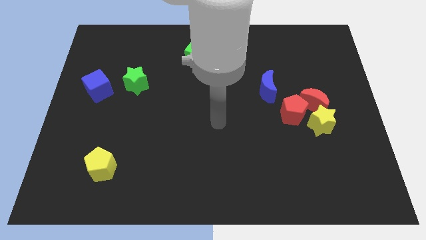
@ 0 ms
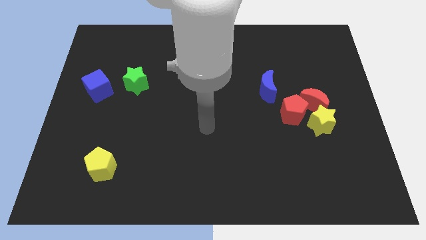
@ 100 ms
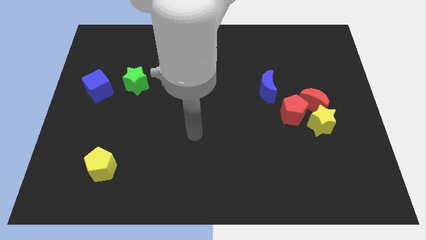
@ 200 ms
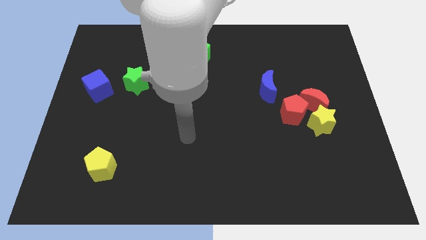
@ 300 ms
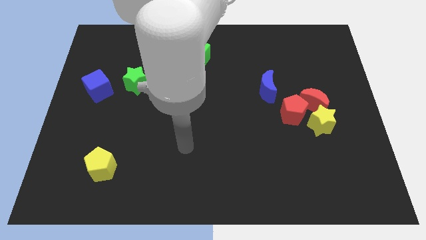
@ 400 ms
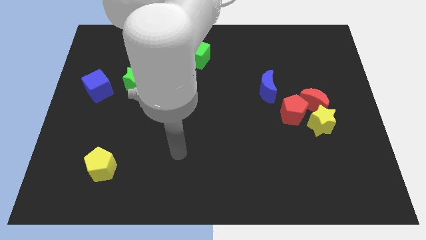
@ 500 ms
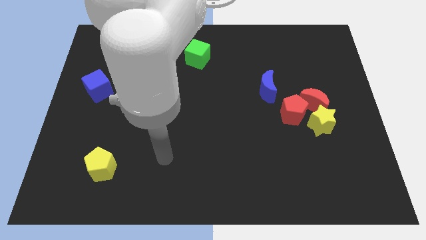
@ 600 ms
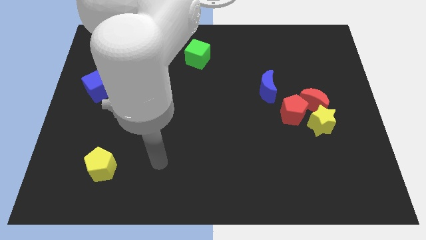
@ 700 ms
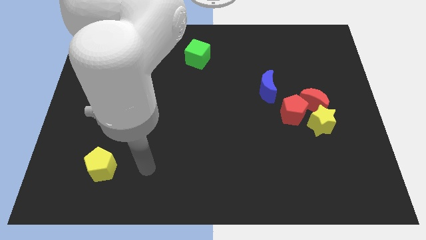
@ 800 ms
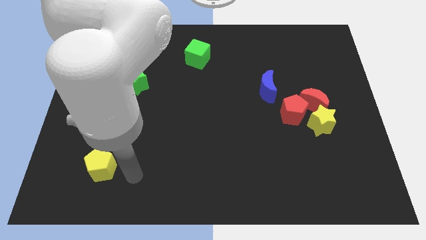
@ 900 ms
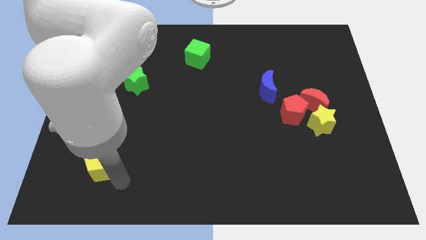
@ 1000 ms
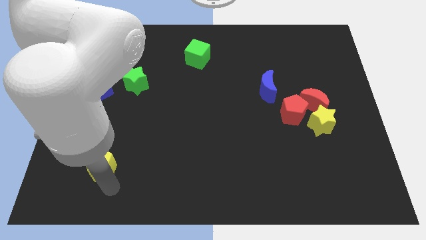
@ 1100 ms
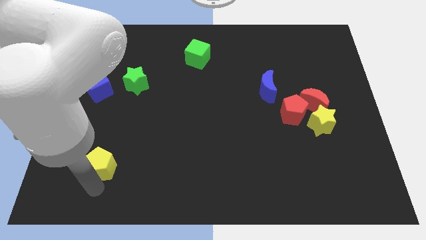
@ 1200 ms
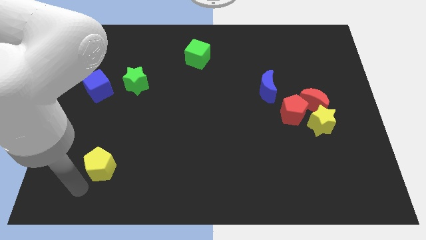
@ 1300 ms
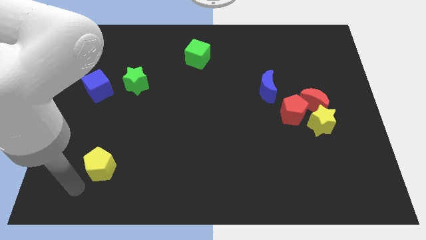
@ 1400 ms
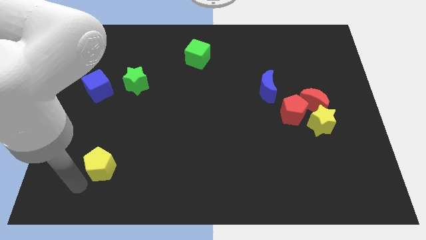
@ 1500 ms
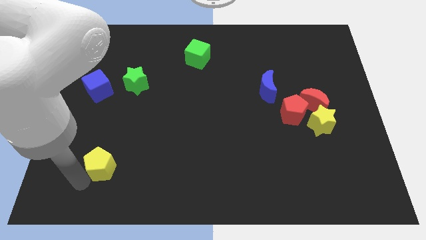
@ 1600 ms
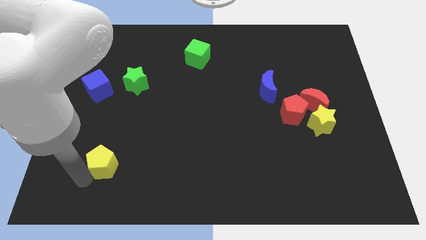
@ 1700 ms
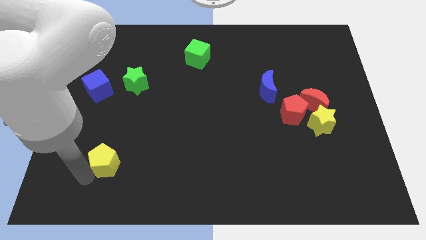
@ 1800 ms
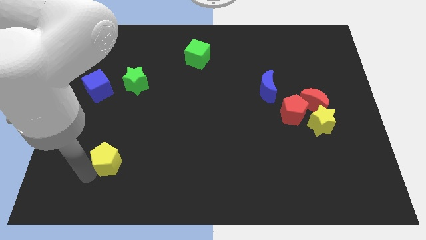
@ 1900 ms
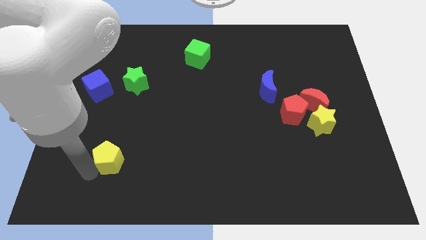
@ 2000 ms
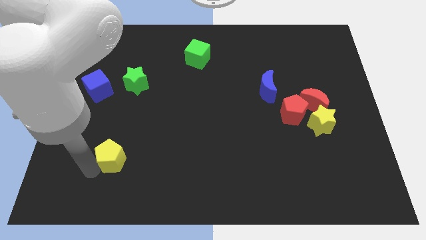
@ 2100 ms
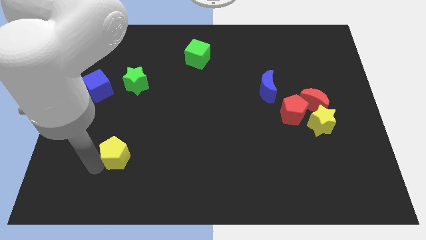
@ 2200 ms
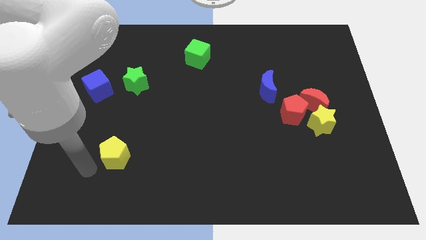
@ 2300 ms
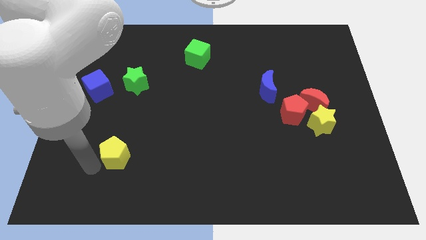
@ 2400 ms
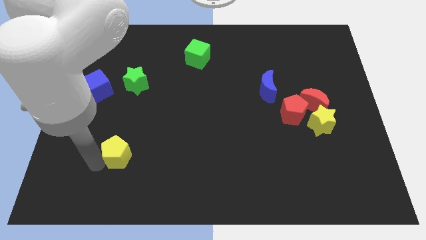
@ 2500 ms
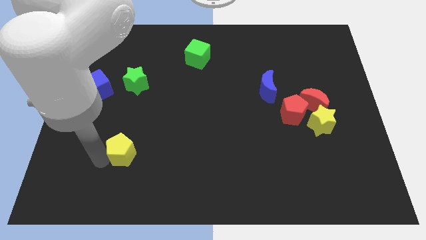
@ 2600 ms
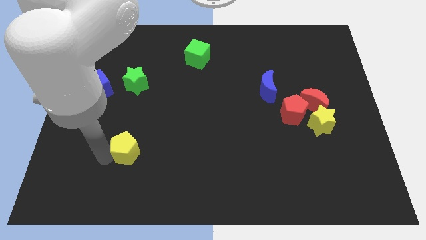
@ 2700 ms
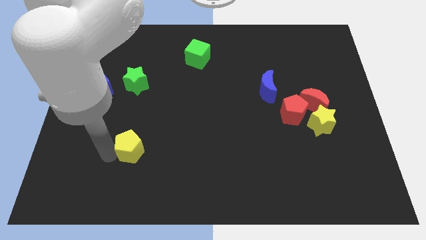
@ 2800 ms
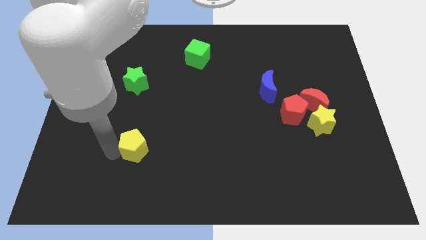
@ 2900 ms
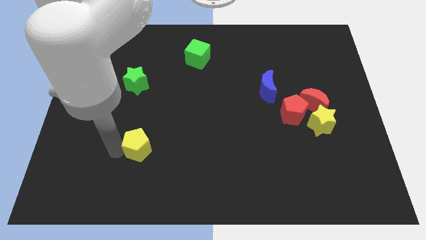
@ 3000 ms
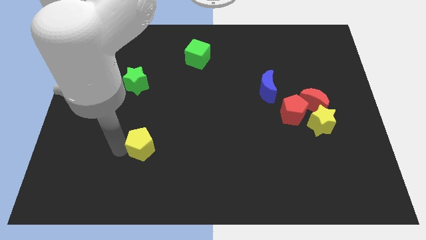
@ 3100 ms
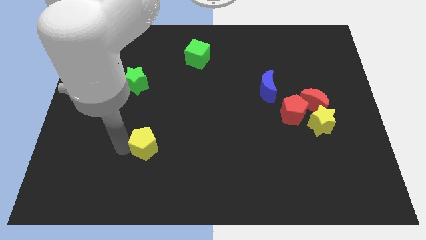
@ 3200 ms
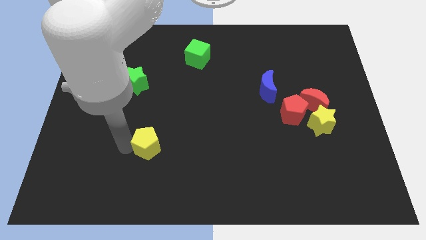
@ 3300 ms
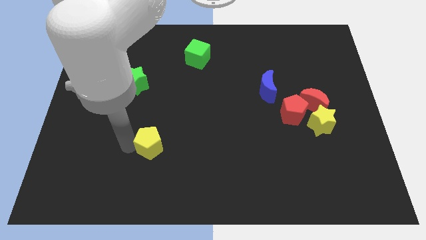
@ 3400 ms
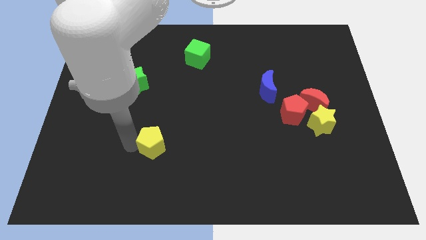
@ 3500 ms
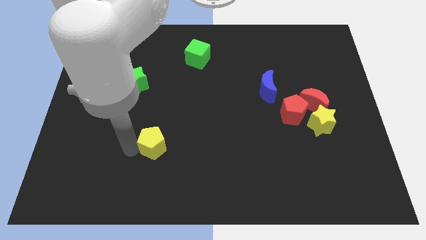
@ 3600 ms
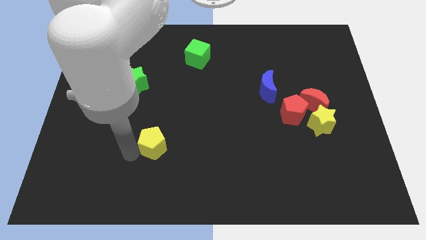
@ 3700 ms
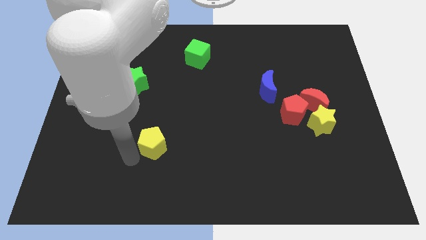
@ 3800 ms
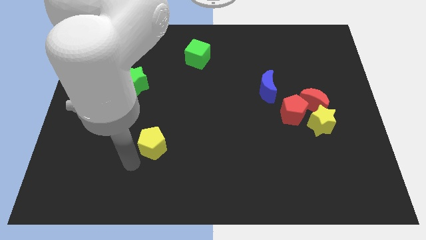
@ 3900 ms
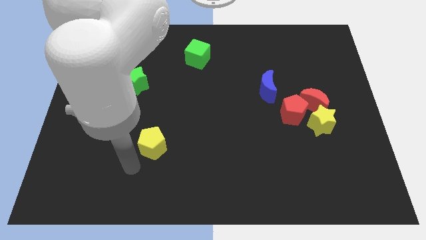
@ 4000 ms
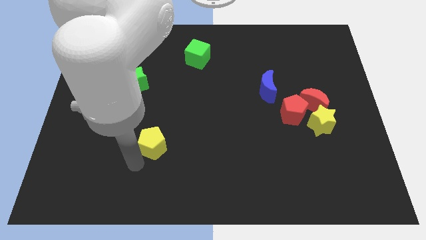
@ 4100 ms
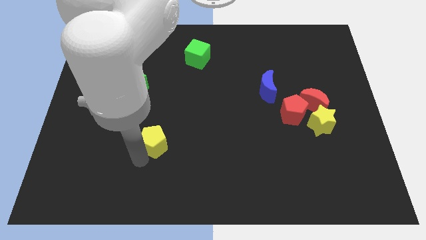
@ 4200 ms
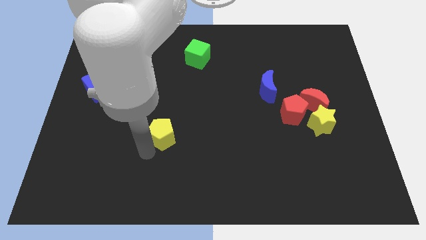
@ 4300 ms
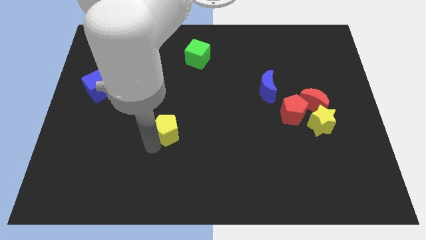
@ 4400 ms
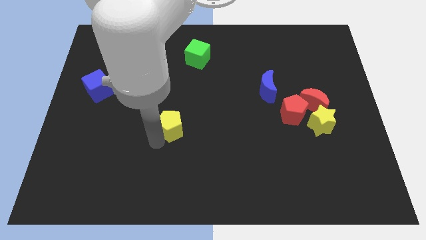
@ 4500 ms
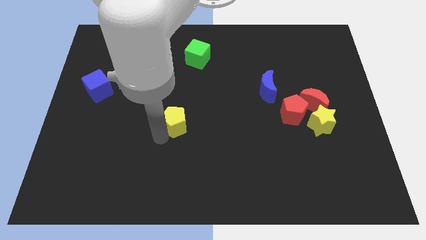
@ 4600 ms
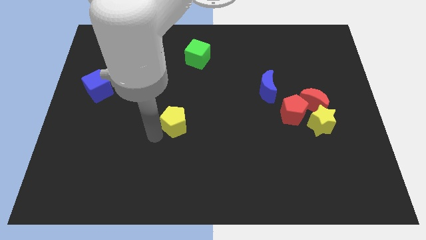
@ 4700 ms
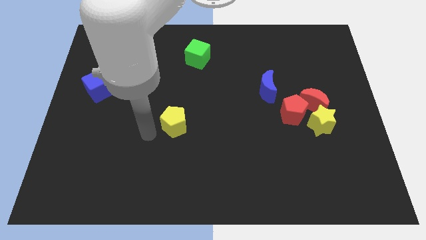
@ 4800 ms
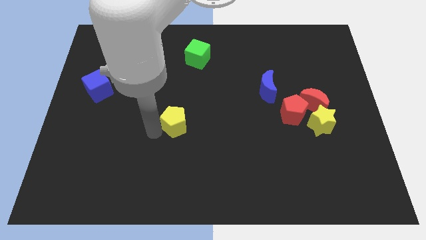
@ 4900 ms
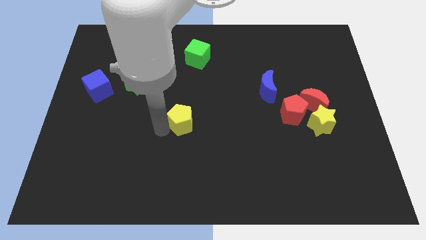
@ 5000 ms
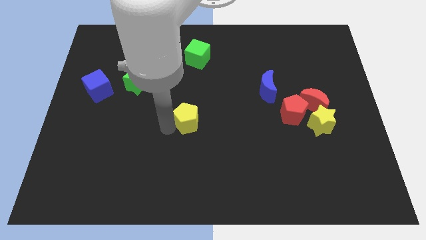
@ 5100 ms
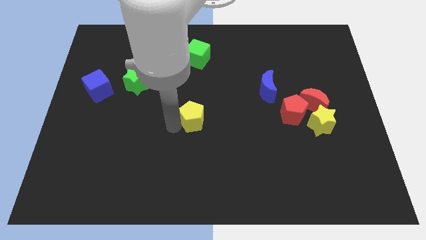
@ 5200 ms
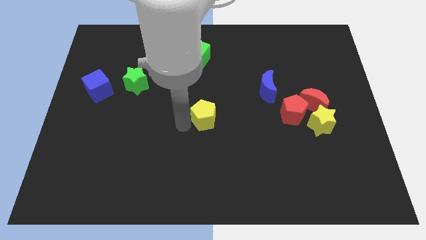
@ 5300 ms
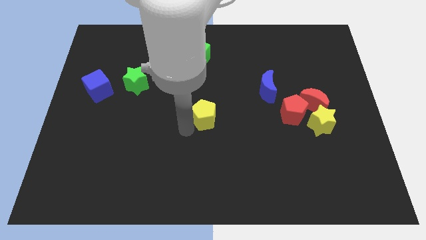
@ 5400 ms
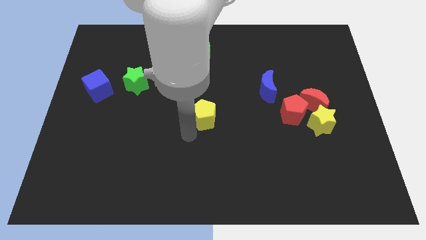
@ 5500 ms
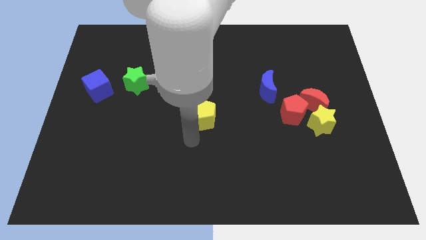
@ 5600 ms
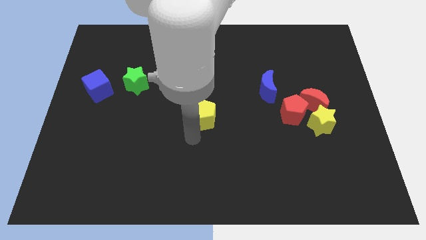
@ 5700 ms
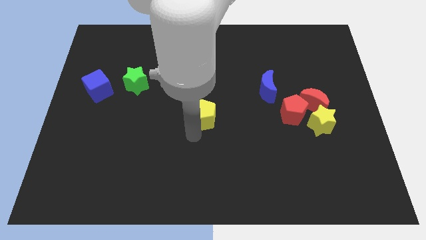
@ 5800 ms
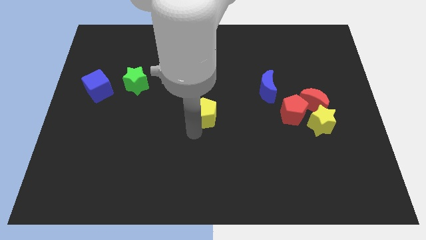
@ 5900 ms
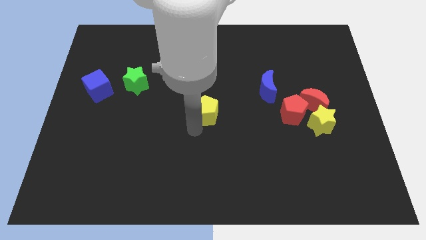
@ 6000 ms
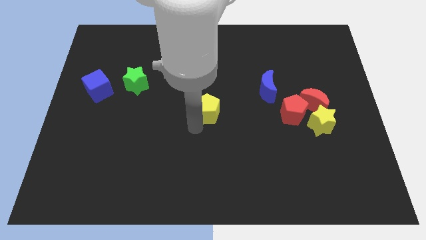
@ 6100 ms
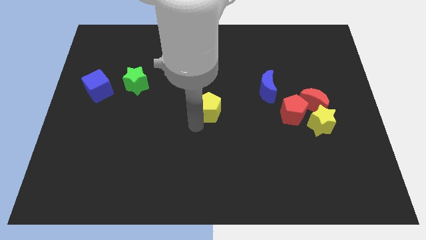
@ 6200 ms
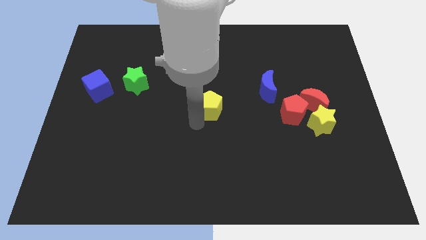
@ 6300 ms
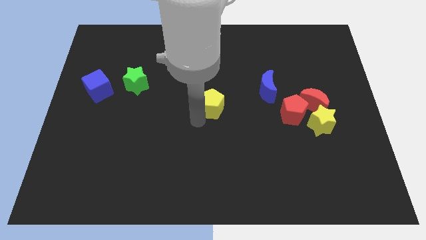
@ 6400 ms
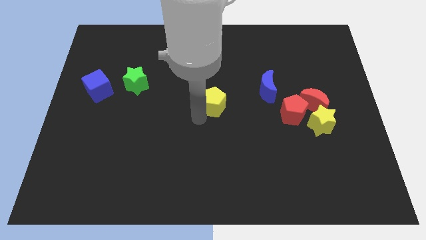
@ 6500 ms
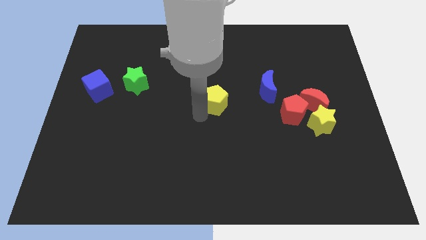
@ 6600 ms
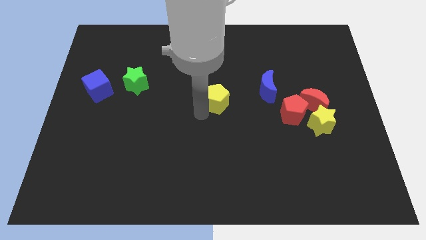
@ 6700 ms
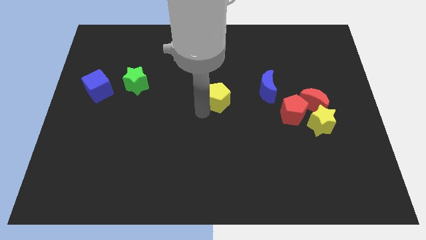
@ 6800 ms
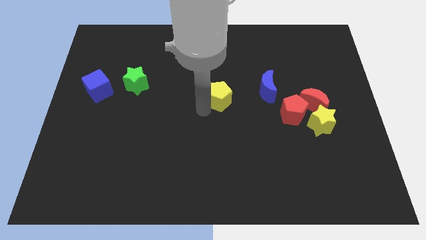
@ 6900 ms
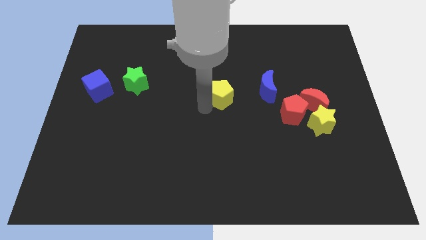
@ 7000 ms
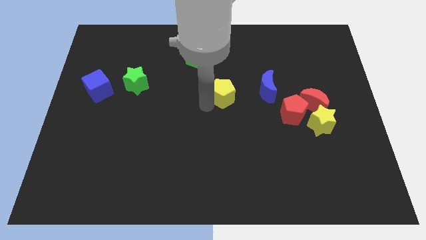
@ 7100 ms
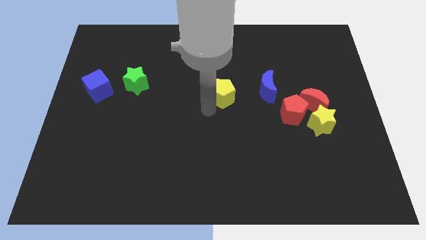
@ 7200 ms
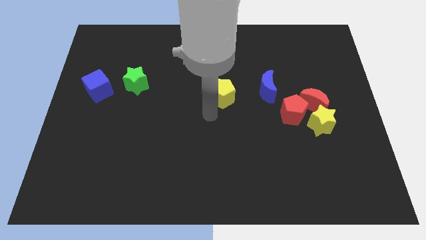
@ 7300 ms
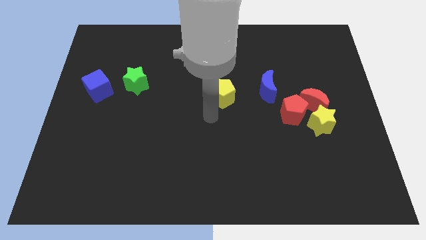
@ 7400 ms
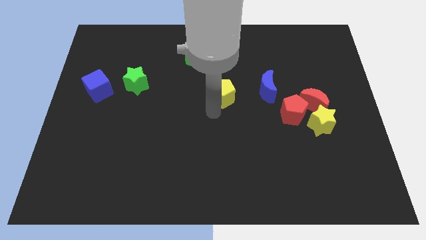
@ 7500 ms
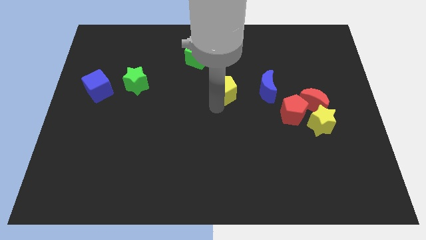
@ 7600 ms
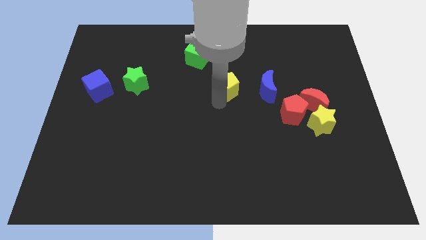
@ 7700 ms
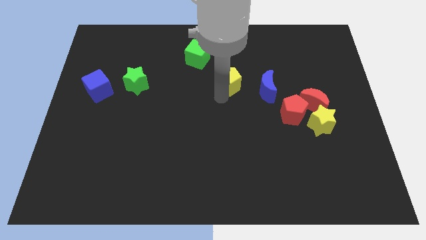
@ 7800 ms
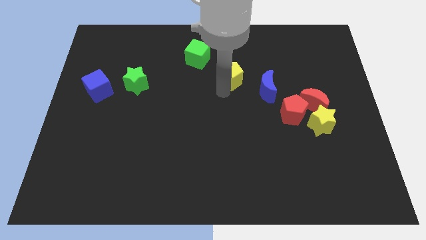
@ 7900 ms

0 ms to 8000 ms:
put the yellow pentagon to the top left of the blue moon
